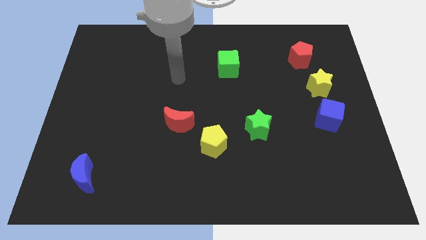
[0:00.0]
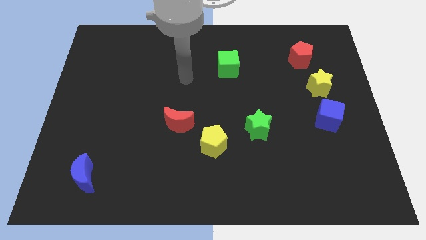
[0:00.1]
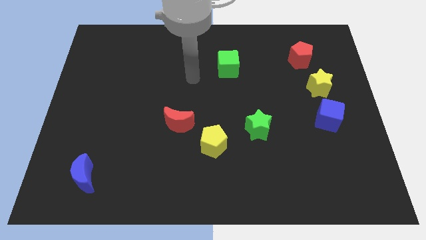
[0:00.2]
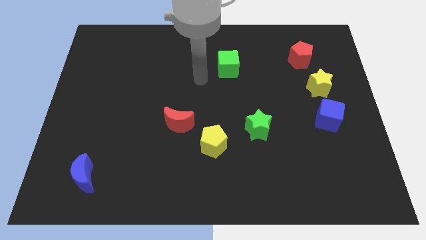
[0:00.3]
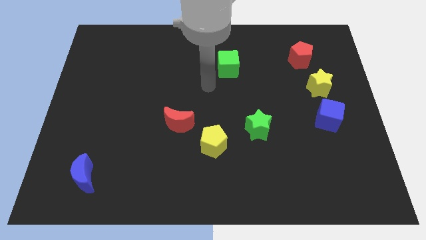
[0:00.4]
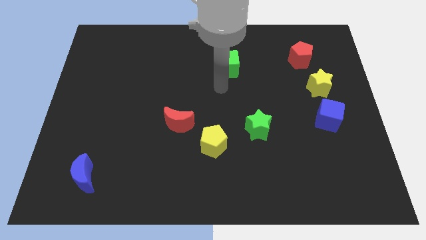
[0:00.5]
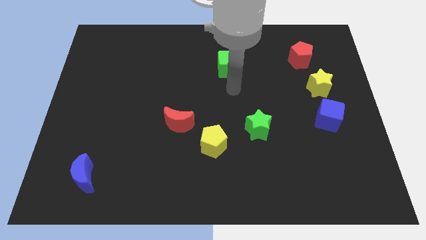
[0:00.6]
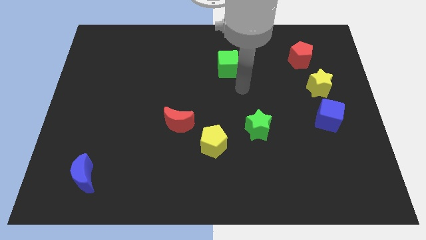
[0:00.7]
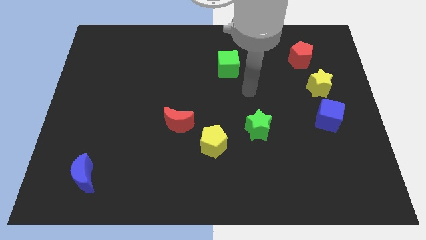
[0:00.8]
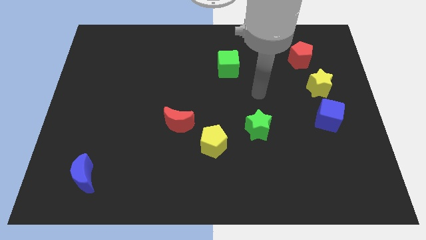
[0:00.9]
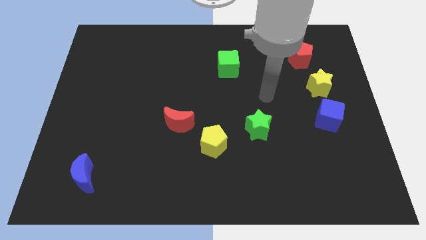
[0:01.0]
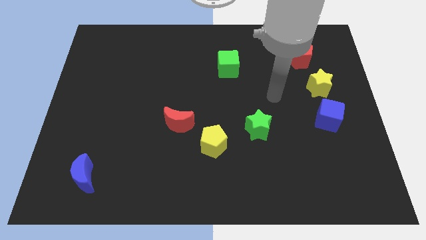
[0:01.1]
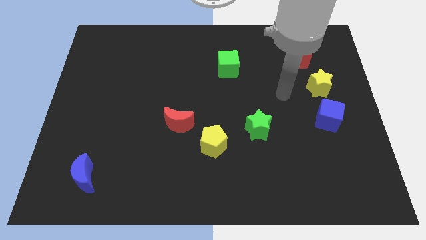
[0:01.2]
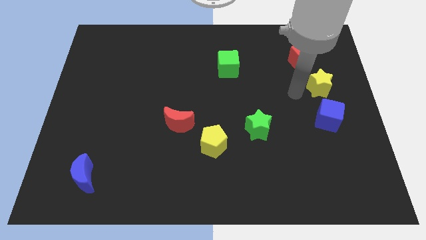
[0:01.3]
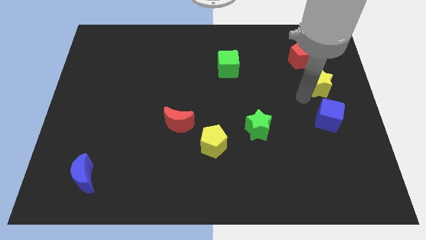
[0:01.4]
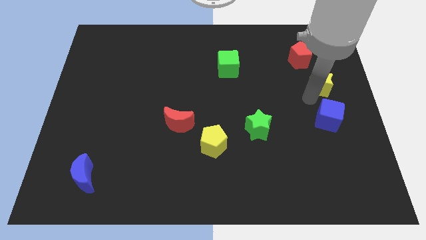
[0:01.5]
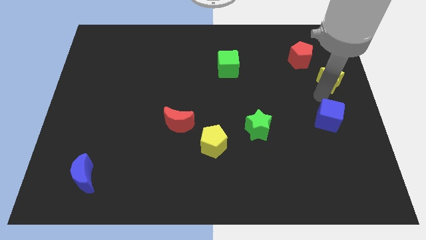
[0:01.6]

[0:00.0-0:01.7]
pull the blue cube apart from the yellow star

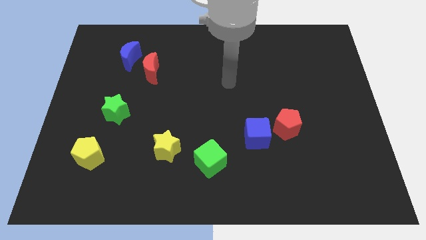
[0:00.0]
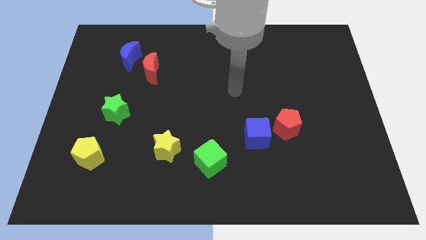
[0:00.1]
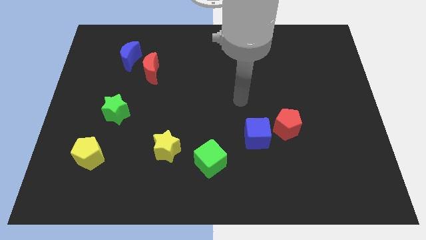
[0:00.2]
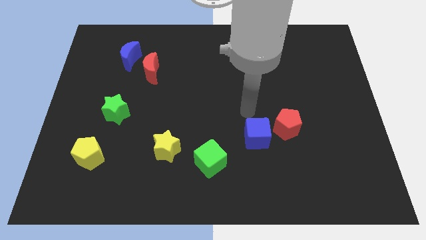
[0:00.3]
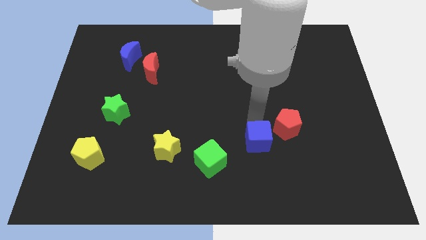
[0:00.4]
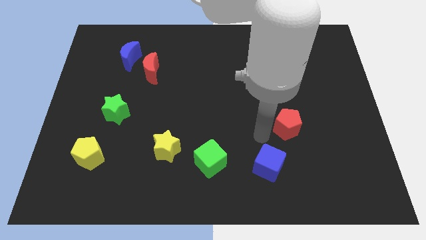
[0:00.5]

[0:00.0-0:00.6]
move the red pentagon away from the blue cube

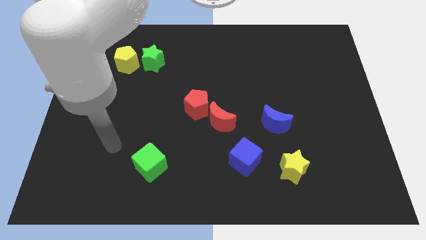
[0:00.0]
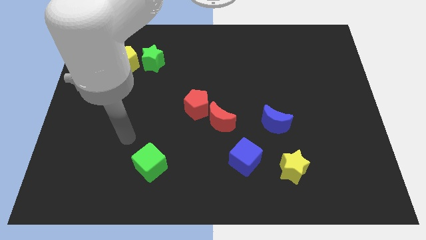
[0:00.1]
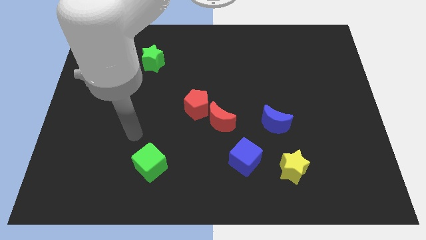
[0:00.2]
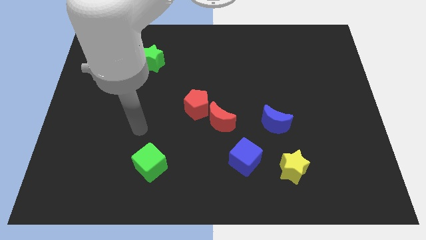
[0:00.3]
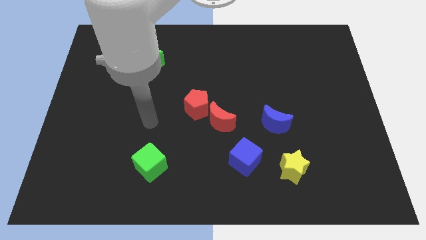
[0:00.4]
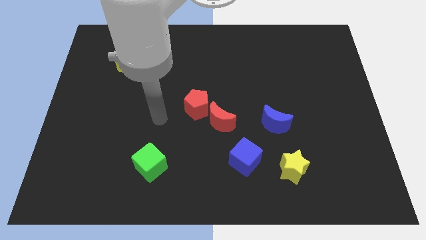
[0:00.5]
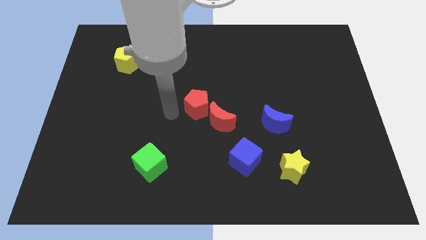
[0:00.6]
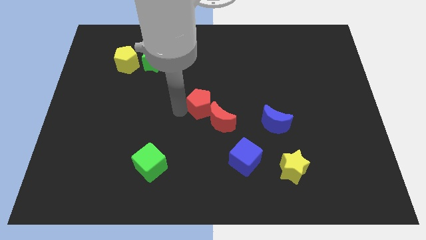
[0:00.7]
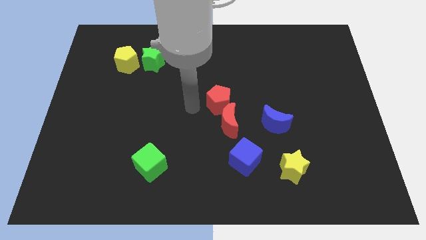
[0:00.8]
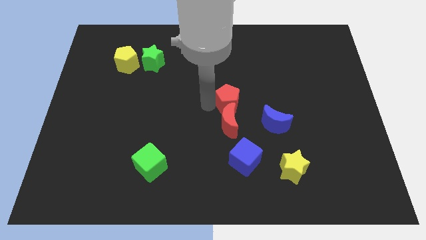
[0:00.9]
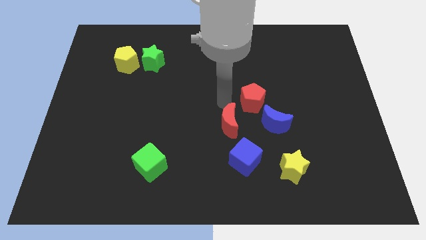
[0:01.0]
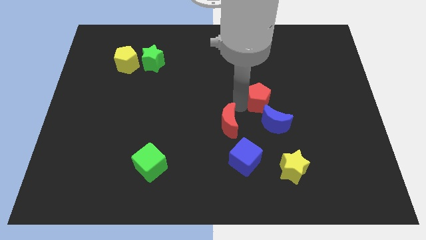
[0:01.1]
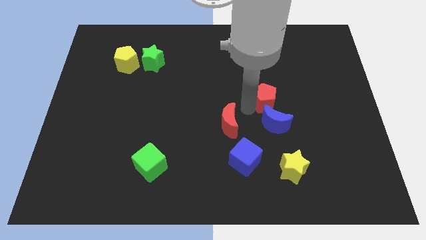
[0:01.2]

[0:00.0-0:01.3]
pull the red moon apart from the red pentagon

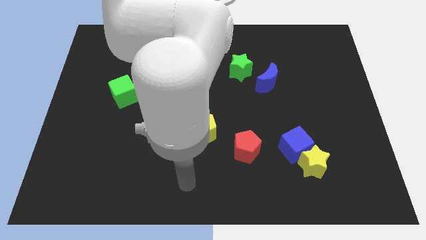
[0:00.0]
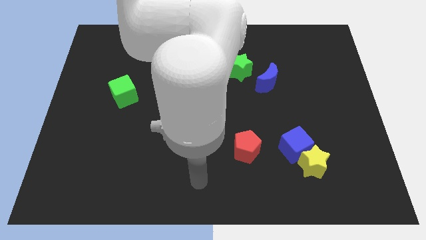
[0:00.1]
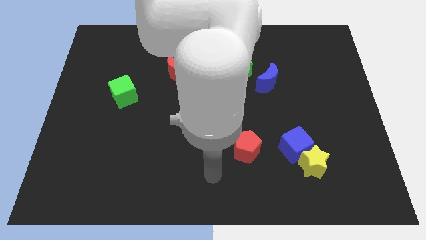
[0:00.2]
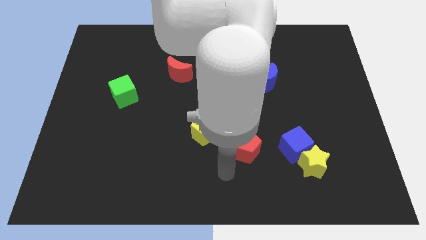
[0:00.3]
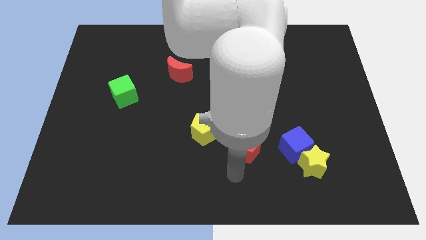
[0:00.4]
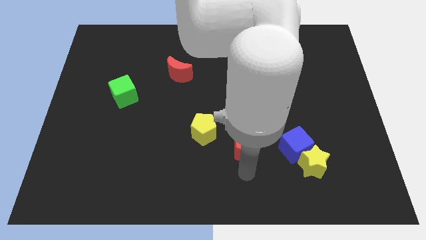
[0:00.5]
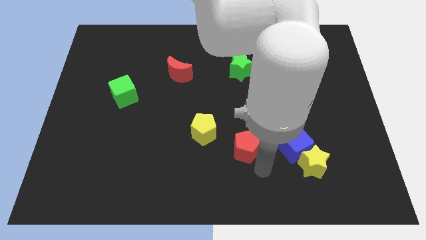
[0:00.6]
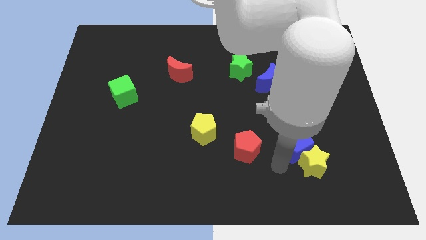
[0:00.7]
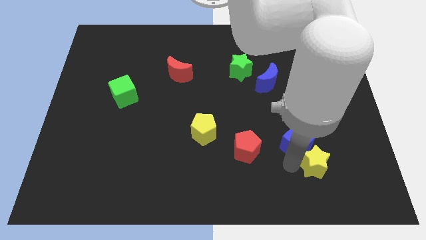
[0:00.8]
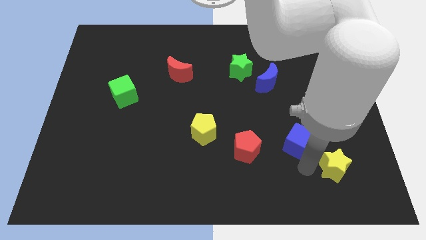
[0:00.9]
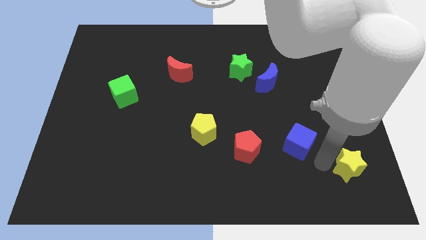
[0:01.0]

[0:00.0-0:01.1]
separate the blue cube from the yellow star

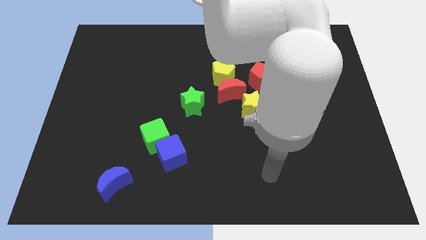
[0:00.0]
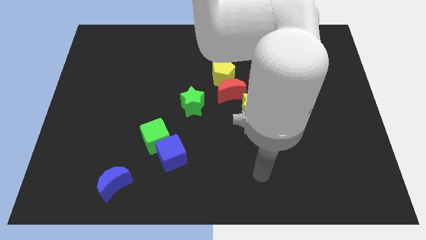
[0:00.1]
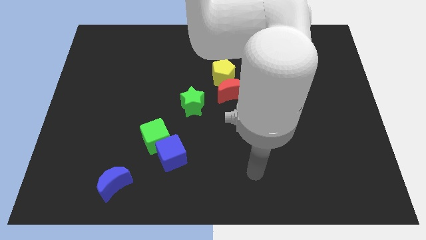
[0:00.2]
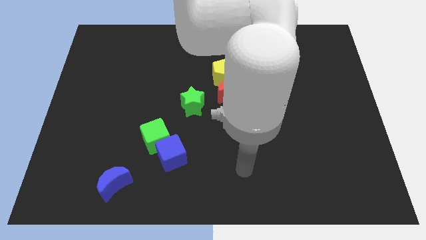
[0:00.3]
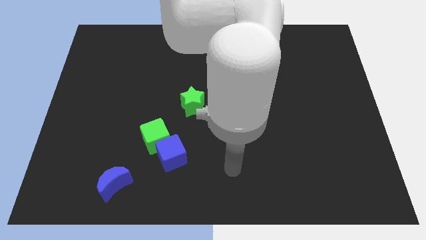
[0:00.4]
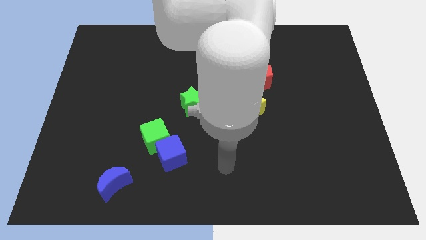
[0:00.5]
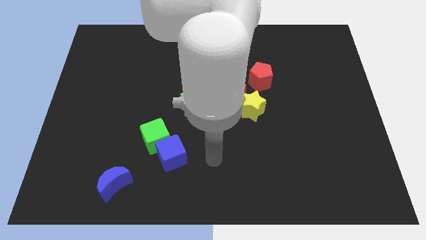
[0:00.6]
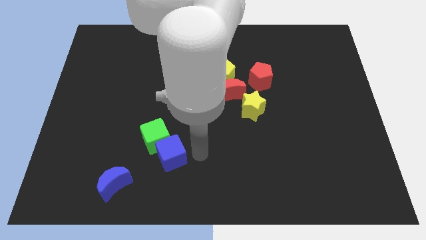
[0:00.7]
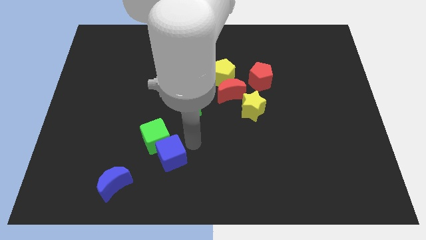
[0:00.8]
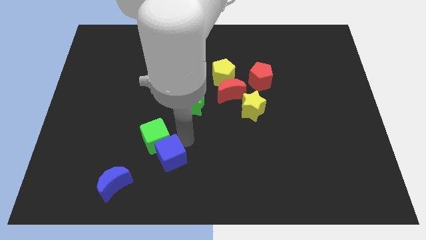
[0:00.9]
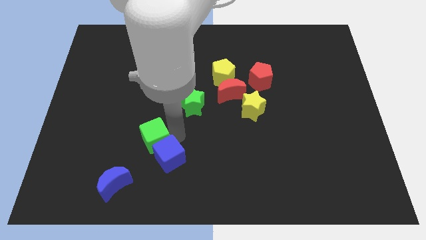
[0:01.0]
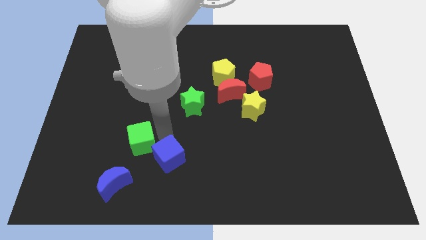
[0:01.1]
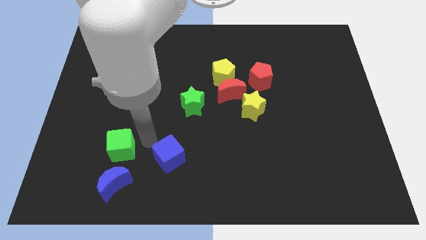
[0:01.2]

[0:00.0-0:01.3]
pull the blue cube apart from the green cube

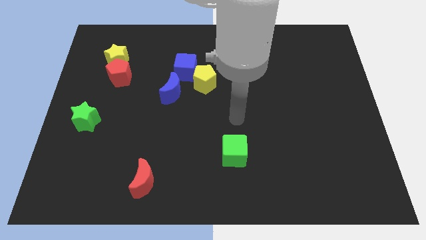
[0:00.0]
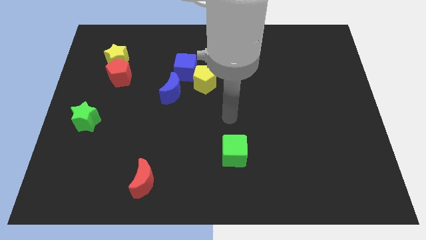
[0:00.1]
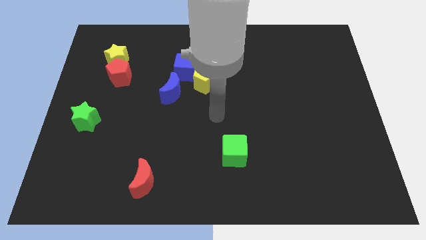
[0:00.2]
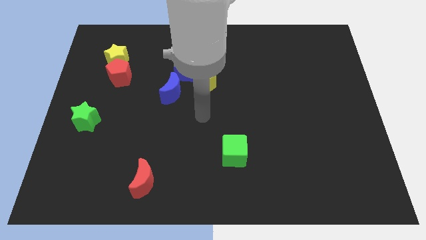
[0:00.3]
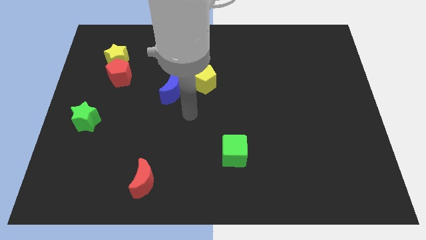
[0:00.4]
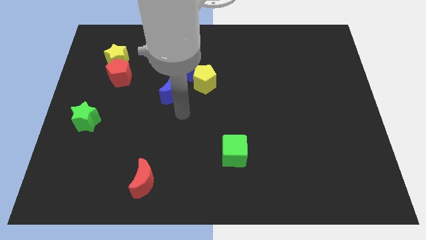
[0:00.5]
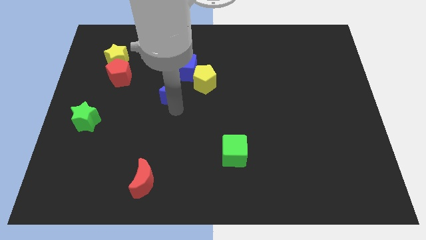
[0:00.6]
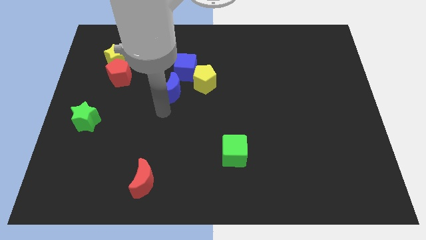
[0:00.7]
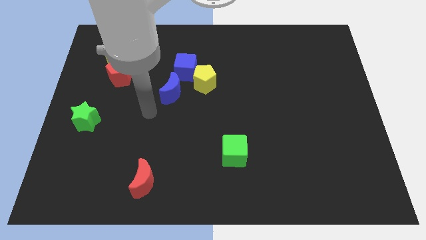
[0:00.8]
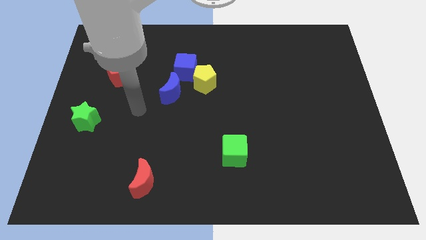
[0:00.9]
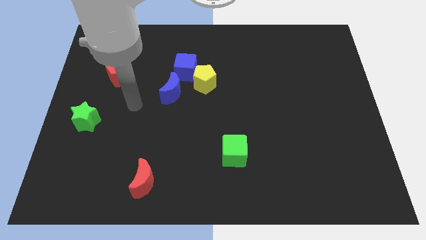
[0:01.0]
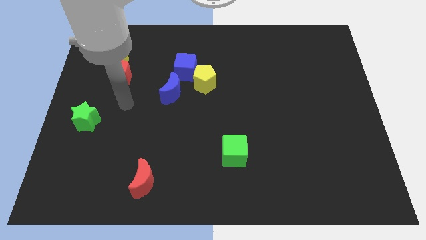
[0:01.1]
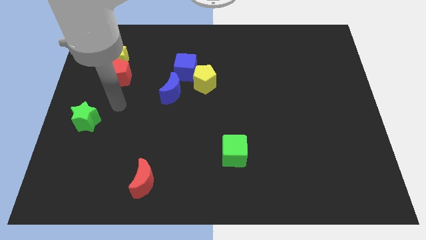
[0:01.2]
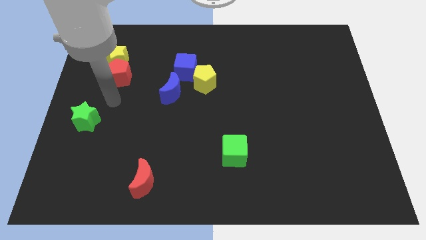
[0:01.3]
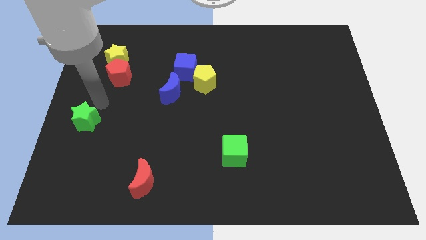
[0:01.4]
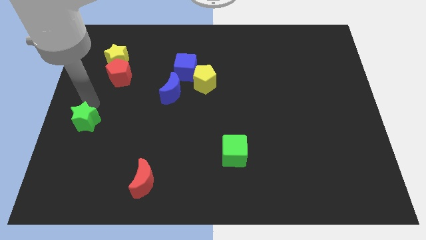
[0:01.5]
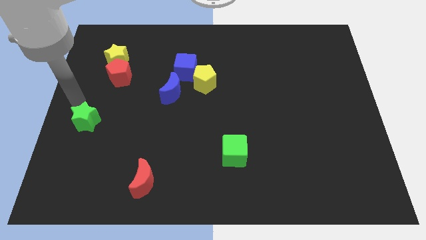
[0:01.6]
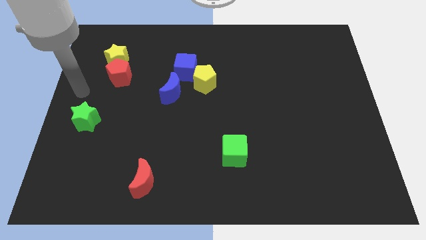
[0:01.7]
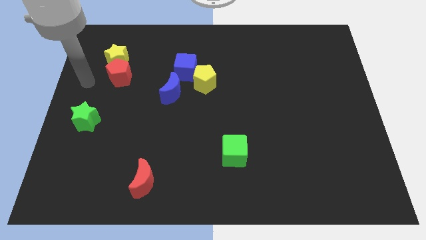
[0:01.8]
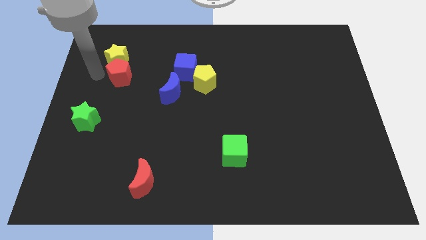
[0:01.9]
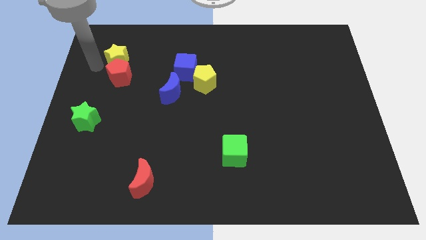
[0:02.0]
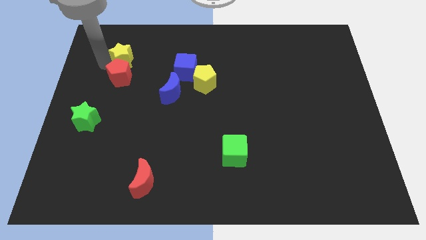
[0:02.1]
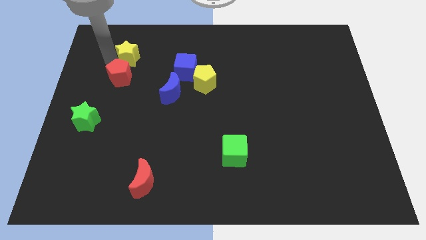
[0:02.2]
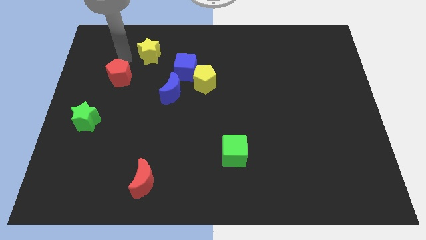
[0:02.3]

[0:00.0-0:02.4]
pull the red pentagon apart from the yellow star

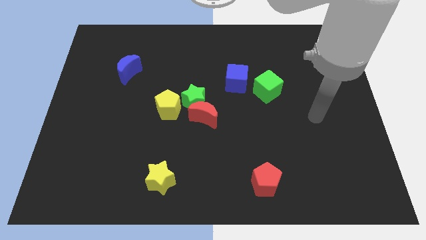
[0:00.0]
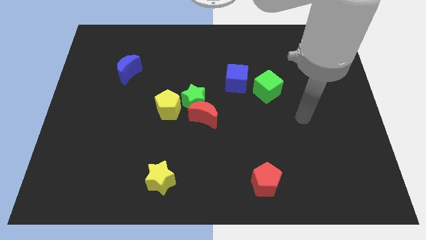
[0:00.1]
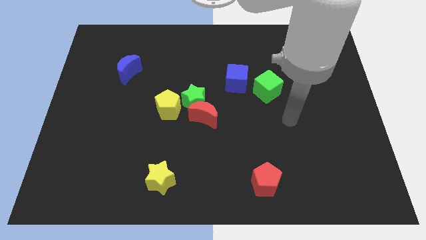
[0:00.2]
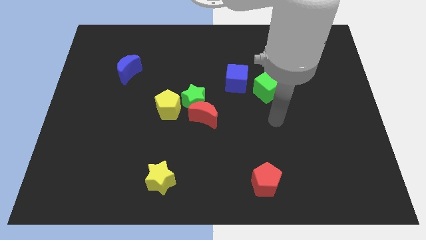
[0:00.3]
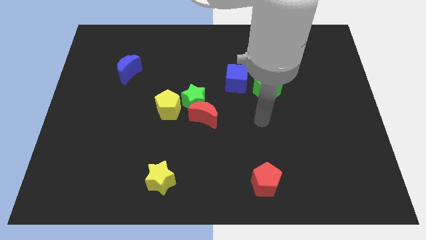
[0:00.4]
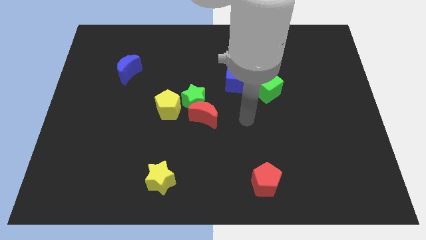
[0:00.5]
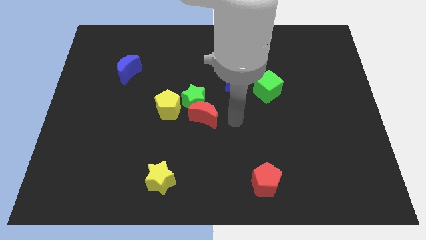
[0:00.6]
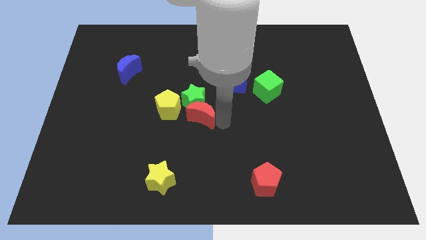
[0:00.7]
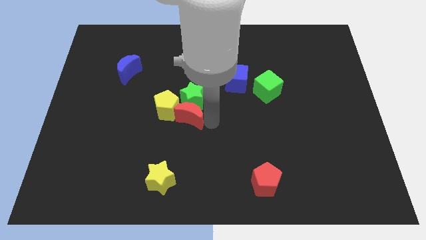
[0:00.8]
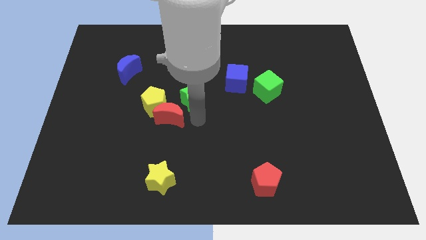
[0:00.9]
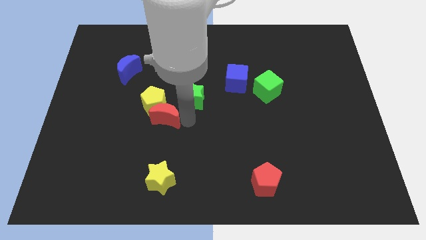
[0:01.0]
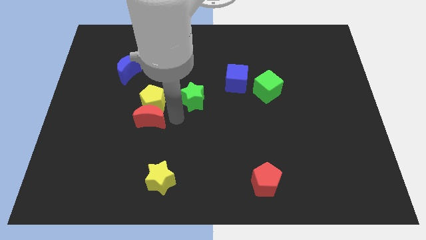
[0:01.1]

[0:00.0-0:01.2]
separate the green star from the red moon and yellow pentagon
